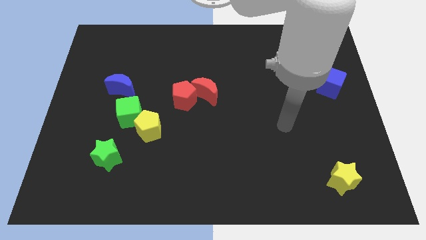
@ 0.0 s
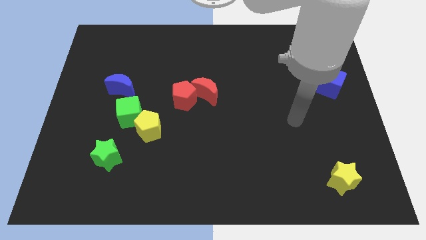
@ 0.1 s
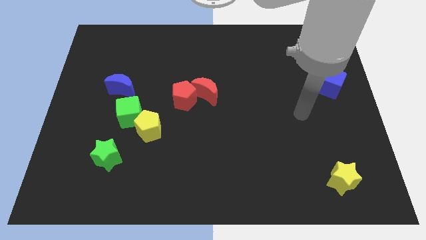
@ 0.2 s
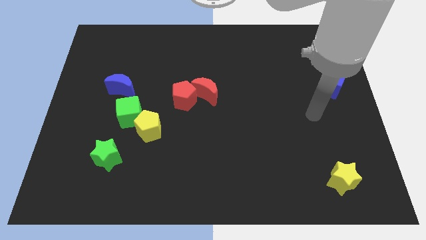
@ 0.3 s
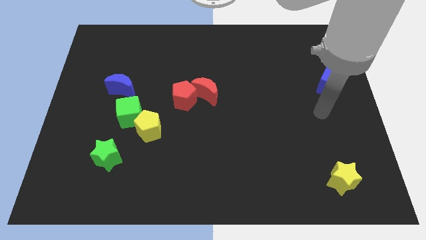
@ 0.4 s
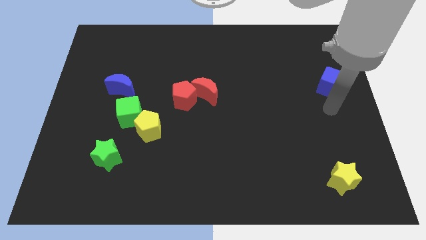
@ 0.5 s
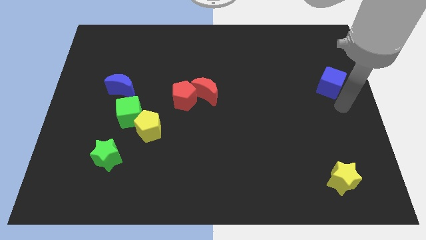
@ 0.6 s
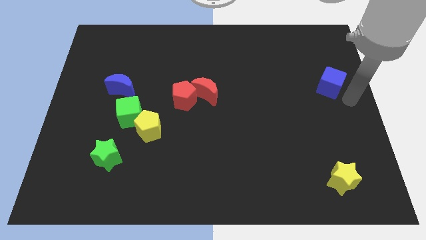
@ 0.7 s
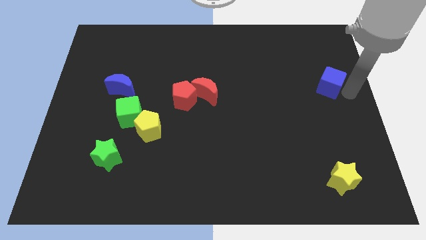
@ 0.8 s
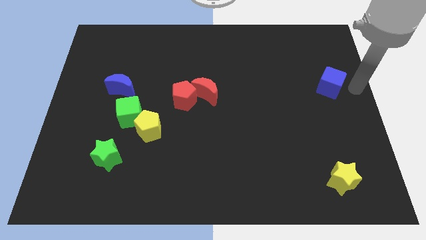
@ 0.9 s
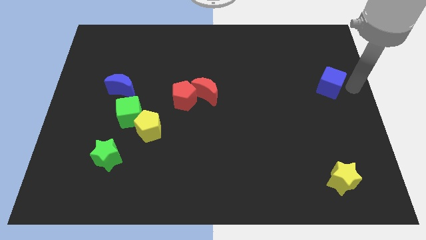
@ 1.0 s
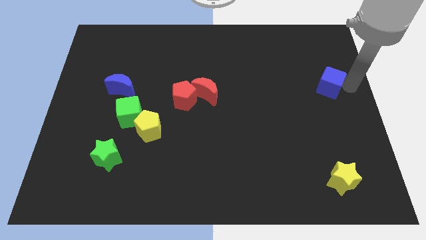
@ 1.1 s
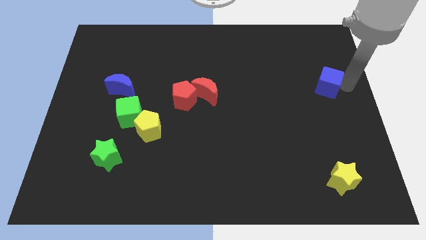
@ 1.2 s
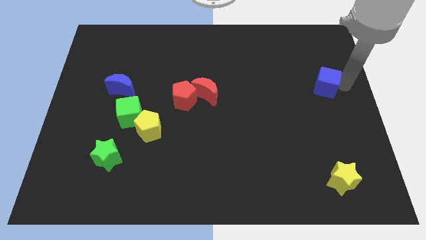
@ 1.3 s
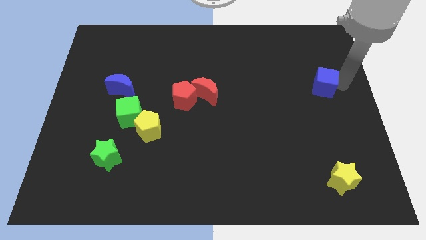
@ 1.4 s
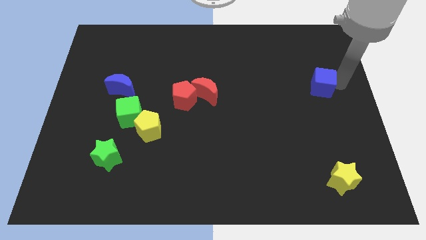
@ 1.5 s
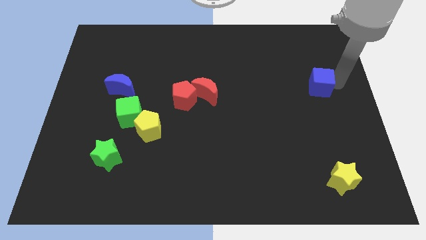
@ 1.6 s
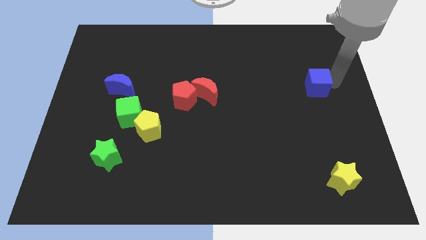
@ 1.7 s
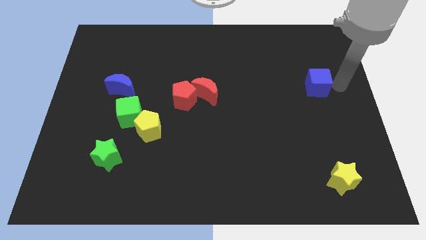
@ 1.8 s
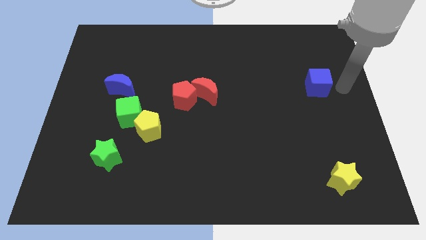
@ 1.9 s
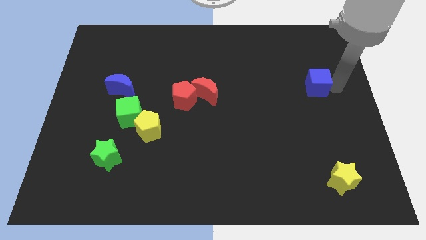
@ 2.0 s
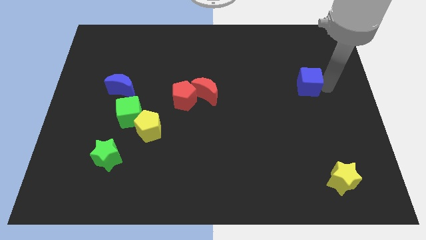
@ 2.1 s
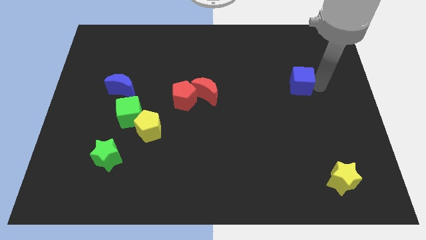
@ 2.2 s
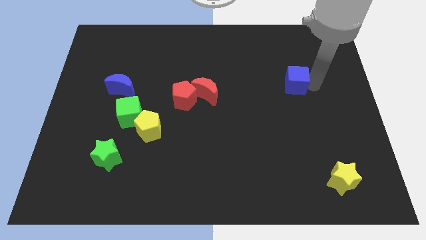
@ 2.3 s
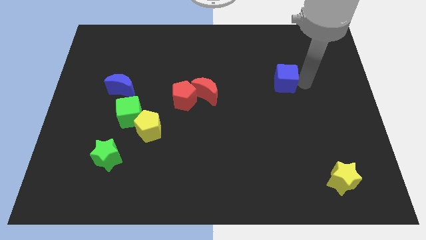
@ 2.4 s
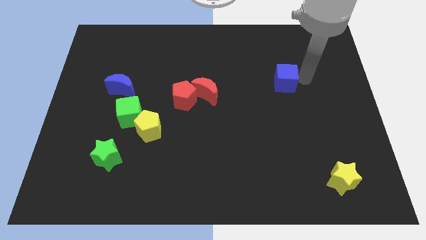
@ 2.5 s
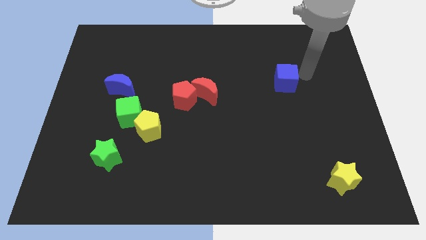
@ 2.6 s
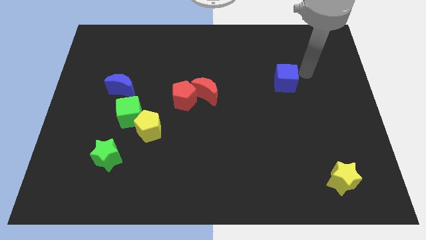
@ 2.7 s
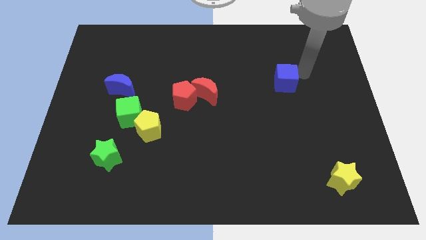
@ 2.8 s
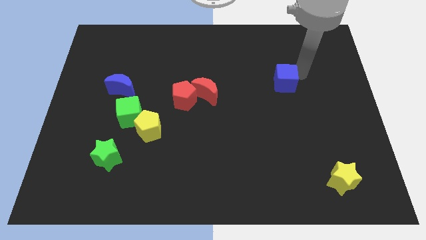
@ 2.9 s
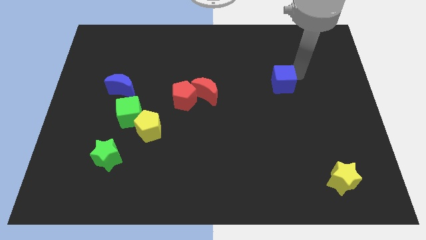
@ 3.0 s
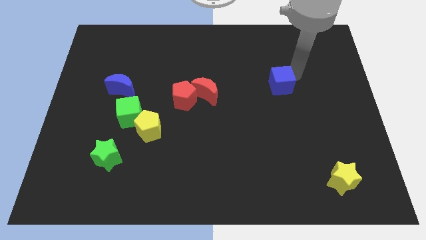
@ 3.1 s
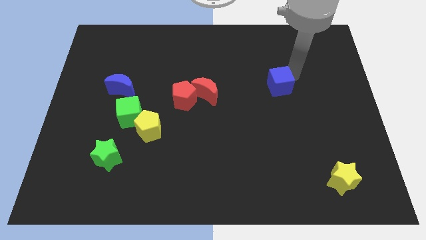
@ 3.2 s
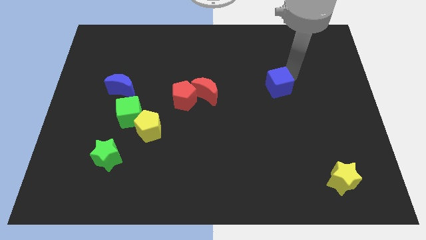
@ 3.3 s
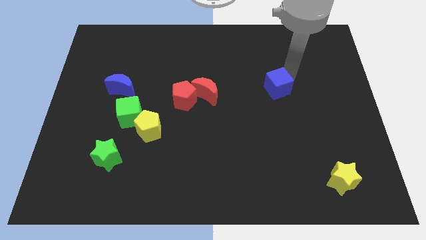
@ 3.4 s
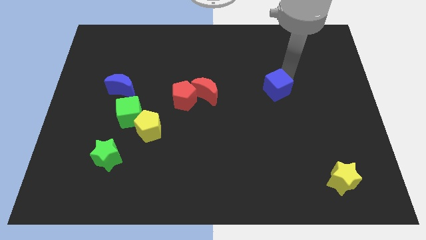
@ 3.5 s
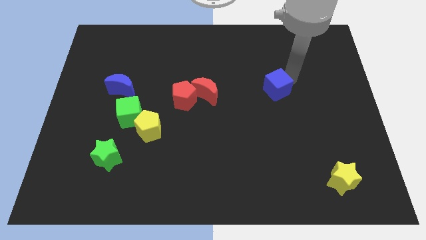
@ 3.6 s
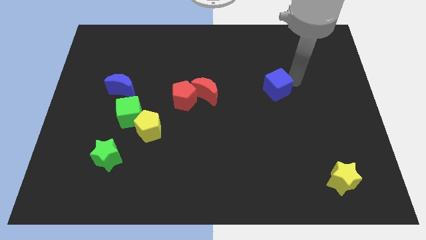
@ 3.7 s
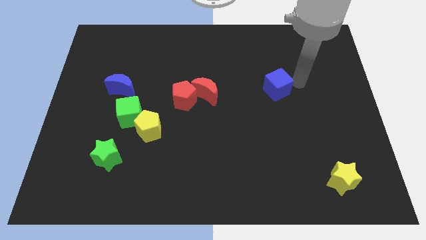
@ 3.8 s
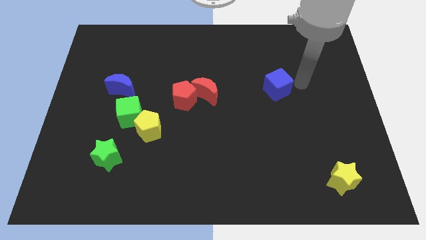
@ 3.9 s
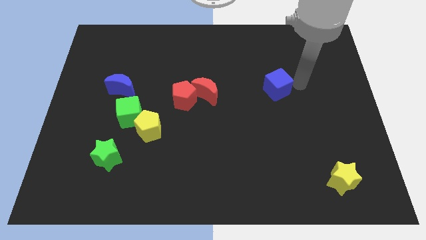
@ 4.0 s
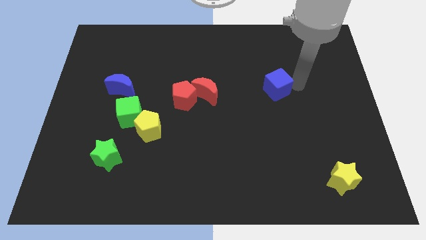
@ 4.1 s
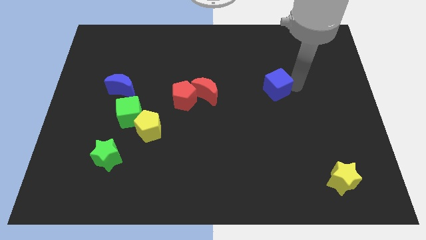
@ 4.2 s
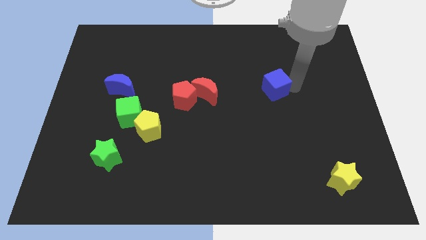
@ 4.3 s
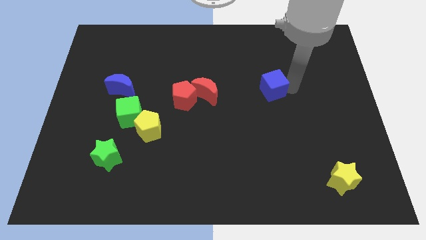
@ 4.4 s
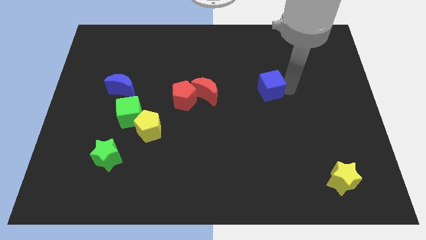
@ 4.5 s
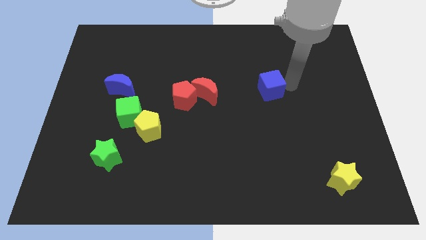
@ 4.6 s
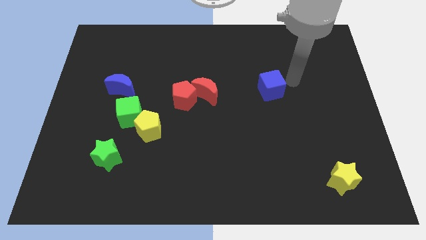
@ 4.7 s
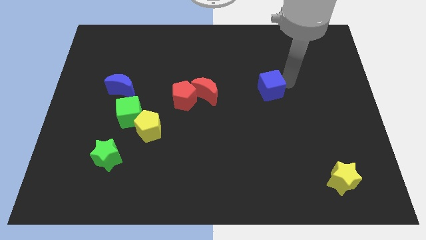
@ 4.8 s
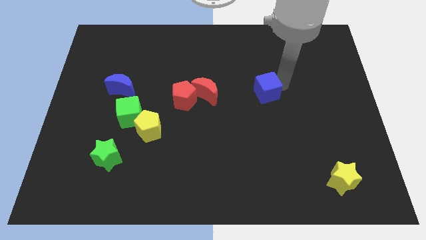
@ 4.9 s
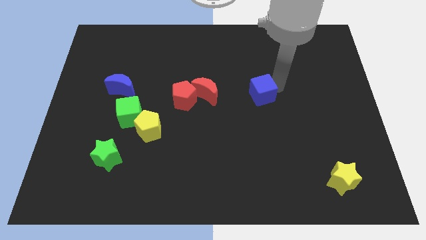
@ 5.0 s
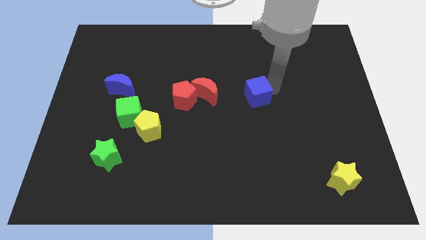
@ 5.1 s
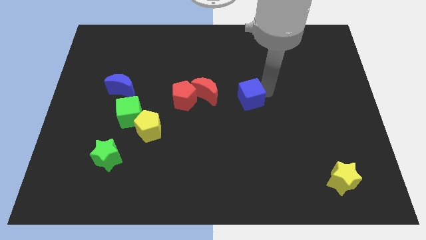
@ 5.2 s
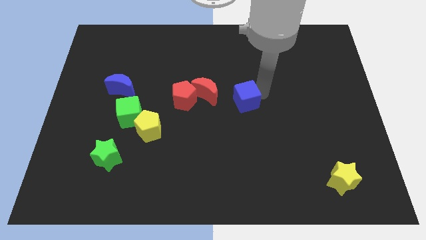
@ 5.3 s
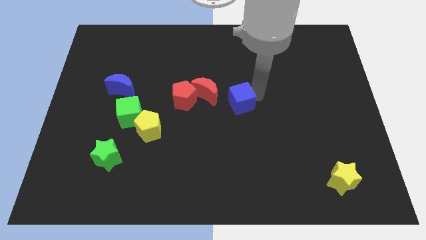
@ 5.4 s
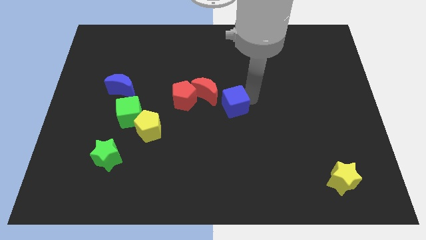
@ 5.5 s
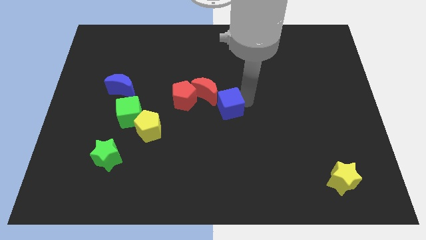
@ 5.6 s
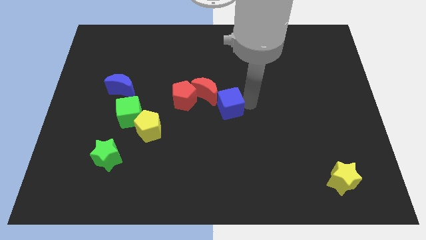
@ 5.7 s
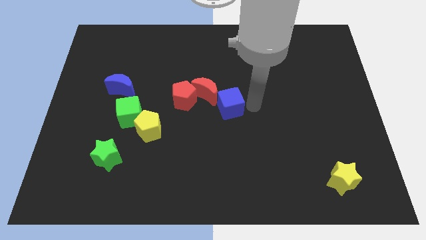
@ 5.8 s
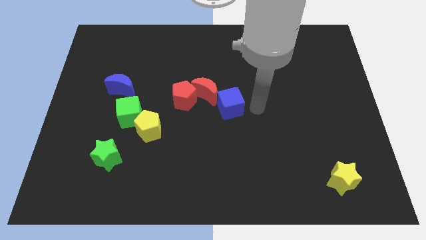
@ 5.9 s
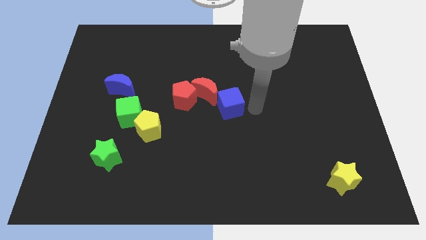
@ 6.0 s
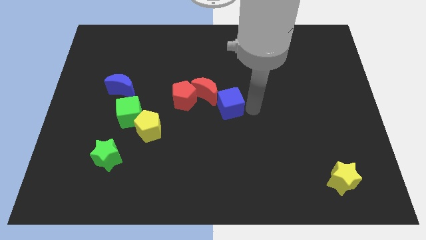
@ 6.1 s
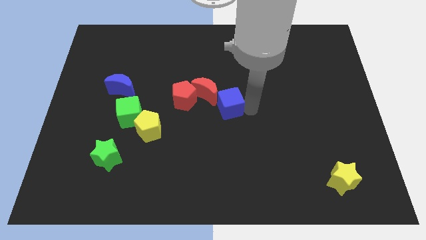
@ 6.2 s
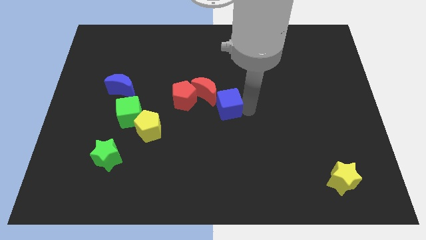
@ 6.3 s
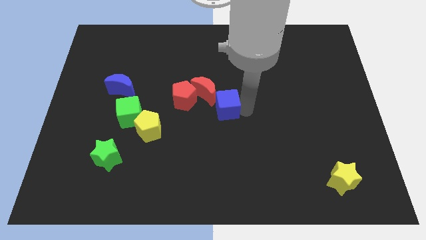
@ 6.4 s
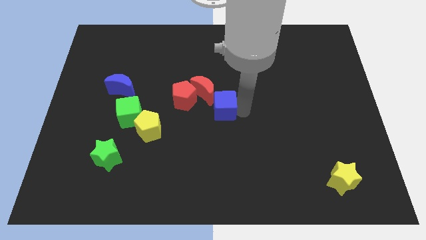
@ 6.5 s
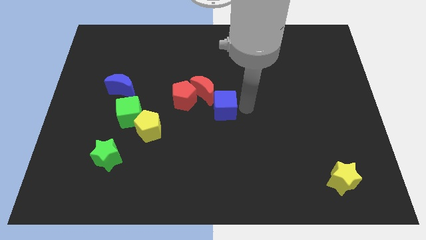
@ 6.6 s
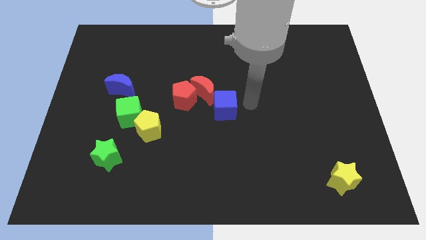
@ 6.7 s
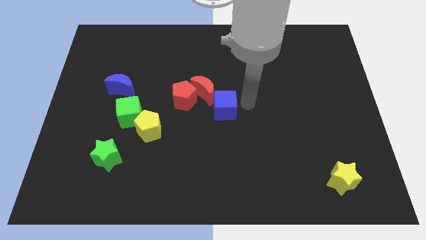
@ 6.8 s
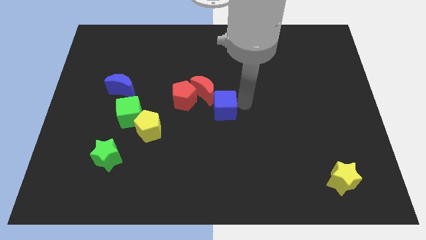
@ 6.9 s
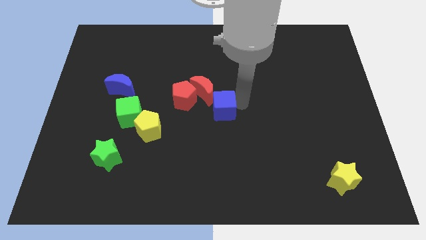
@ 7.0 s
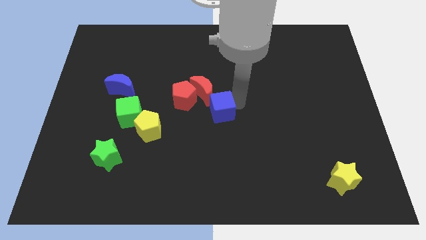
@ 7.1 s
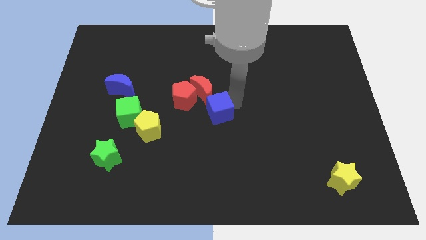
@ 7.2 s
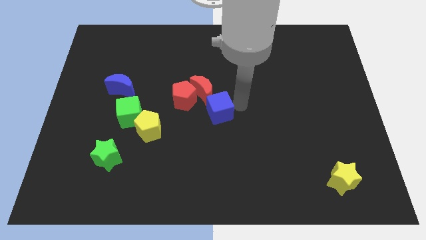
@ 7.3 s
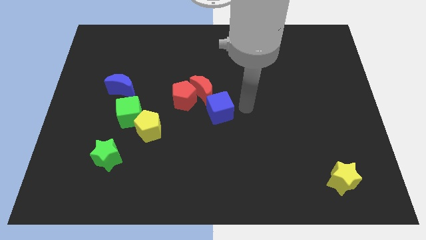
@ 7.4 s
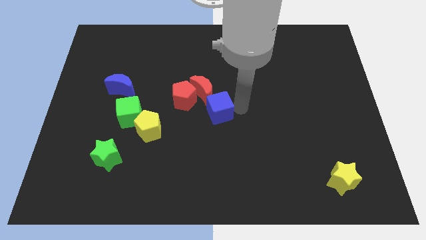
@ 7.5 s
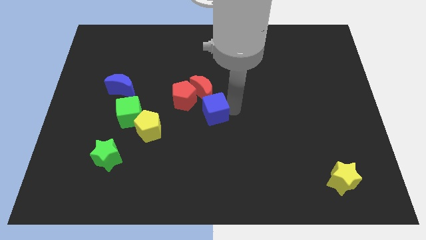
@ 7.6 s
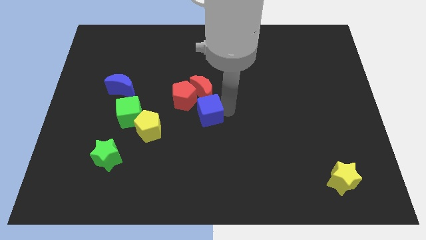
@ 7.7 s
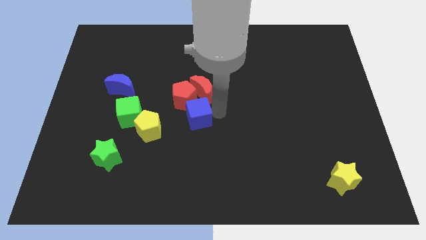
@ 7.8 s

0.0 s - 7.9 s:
slide the blue cube to the right side of the green cube
